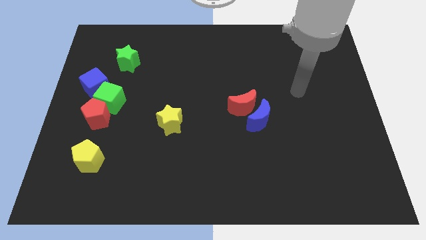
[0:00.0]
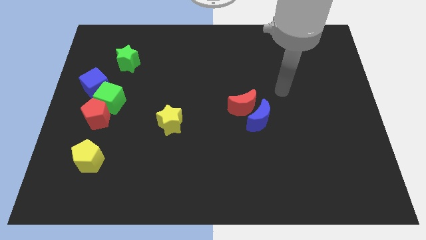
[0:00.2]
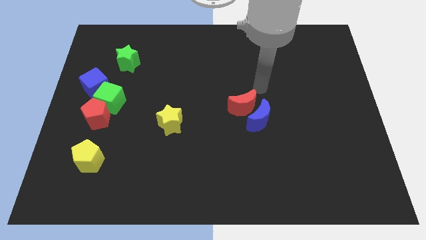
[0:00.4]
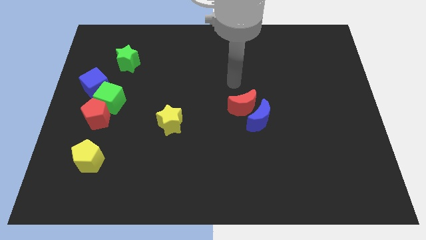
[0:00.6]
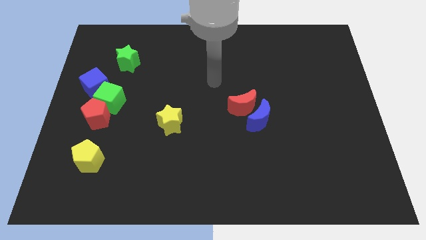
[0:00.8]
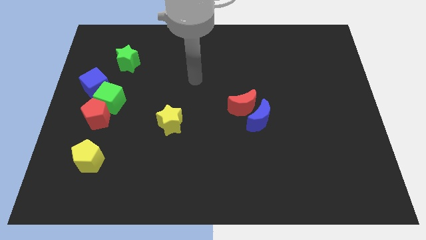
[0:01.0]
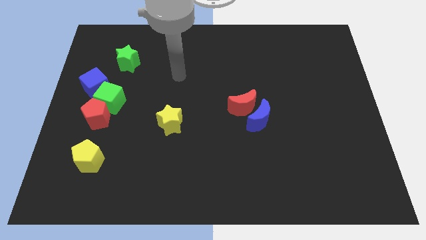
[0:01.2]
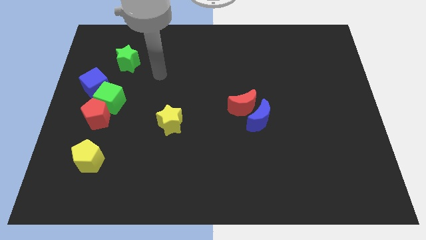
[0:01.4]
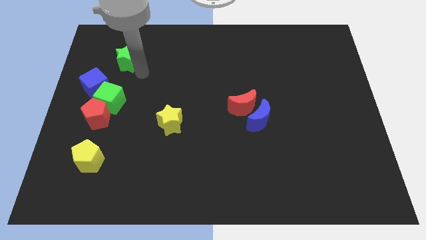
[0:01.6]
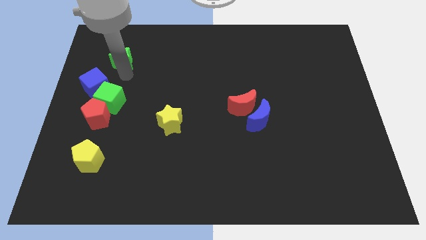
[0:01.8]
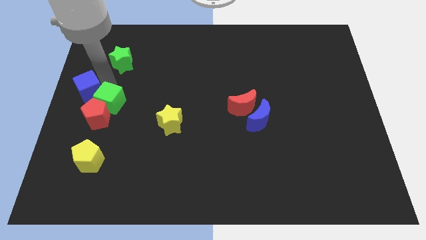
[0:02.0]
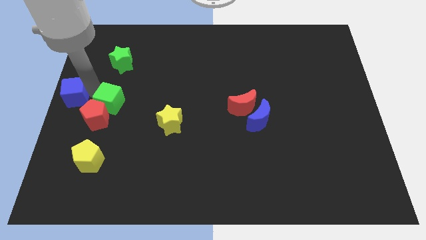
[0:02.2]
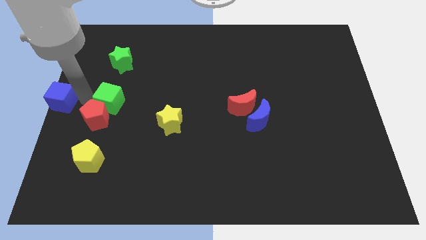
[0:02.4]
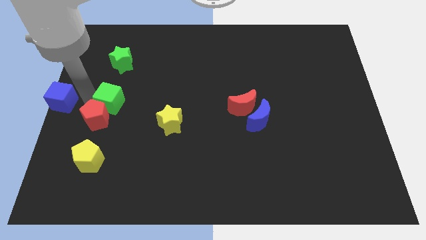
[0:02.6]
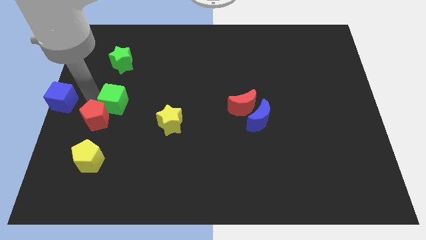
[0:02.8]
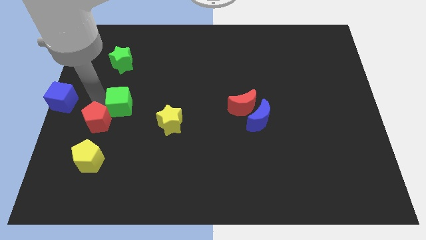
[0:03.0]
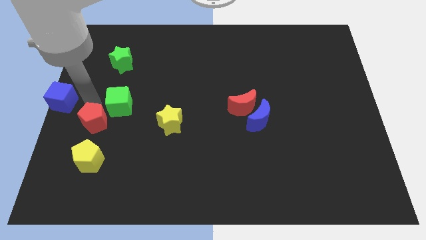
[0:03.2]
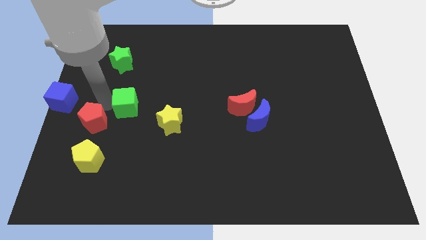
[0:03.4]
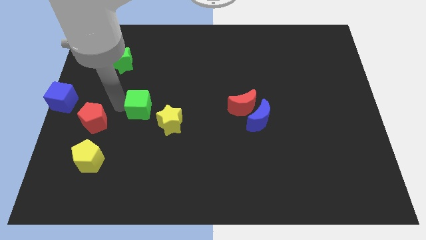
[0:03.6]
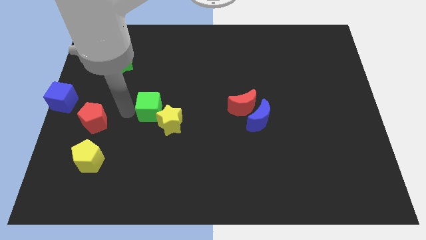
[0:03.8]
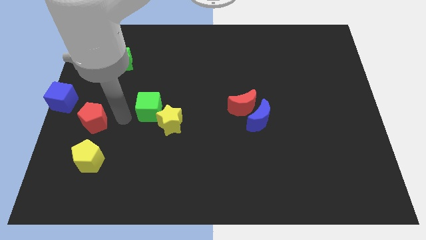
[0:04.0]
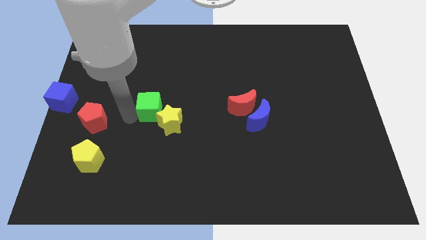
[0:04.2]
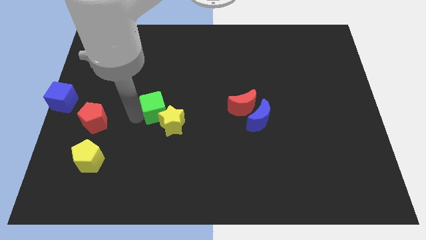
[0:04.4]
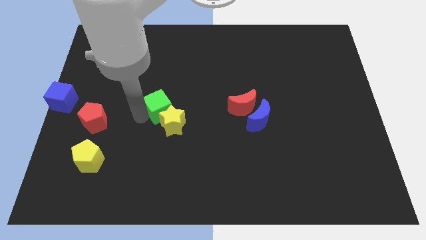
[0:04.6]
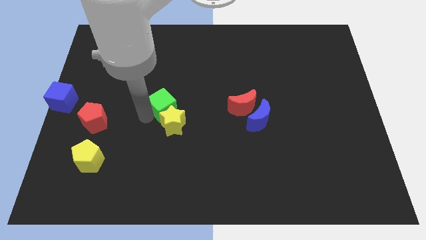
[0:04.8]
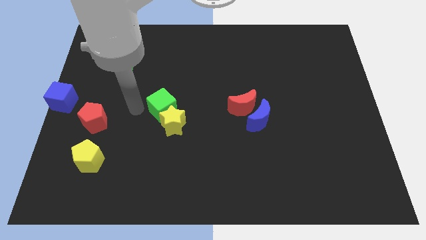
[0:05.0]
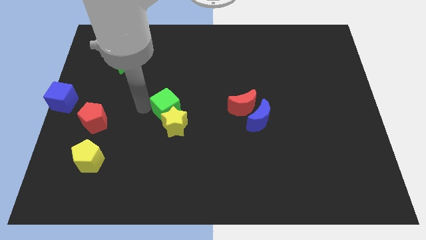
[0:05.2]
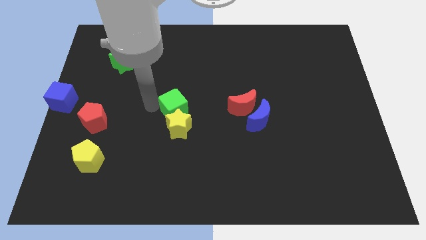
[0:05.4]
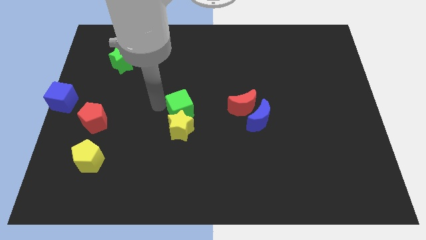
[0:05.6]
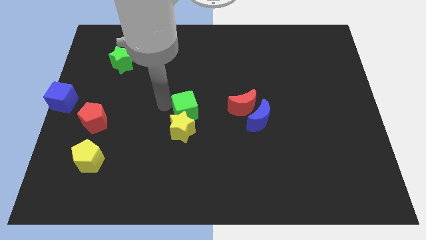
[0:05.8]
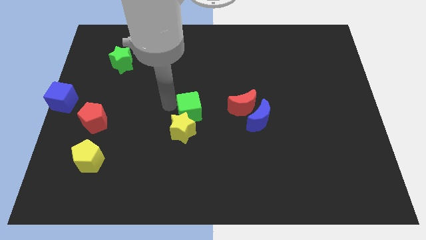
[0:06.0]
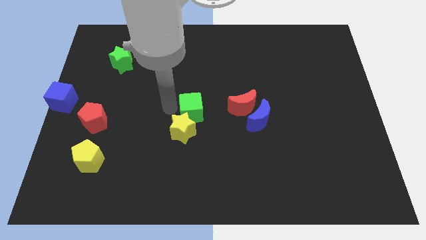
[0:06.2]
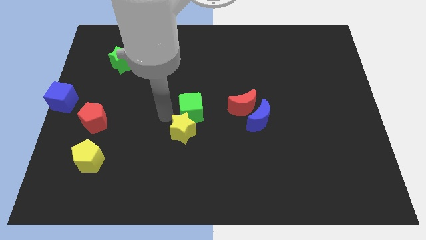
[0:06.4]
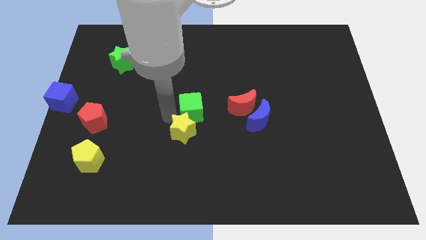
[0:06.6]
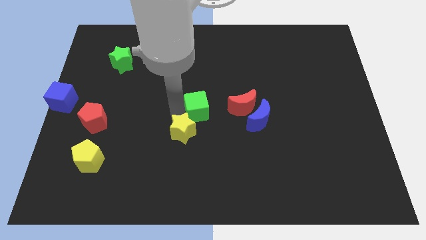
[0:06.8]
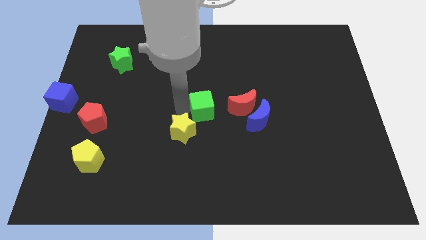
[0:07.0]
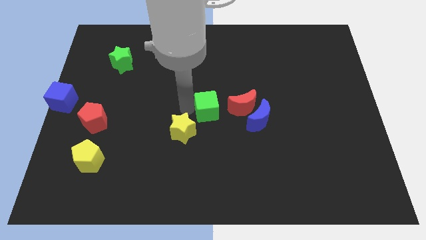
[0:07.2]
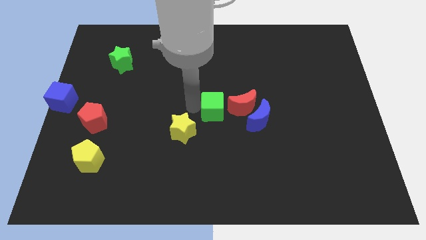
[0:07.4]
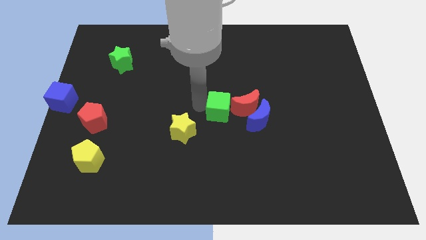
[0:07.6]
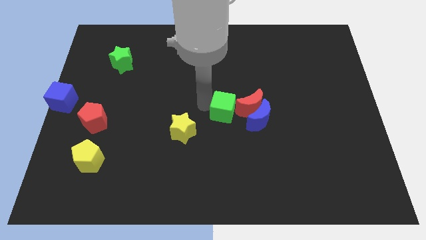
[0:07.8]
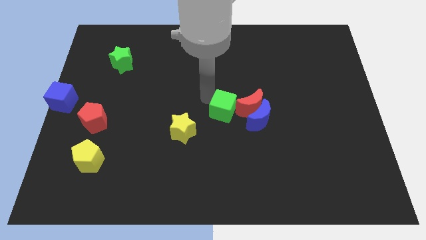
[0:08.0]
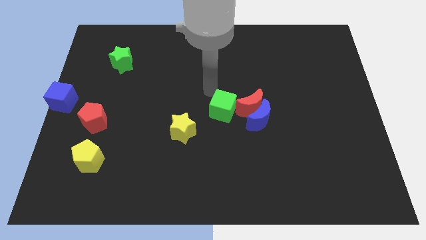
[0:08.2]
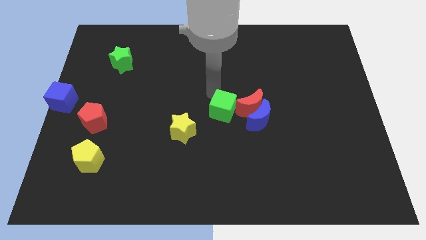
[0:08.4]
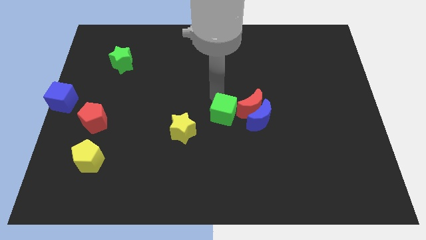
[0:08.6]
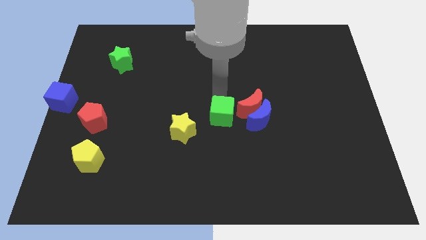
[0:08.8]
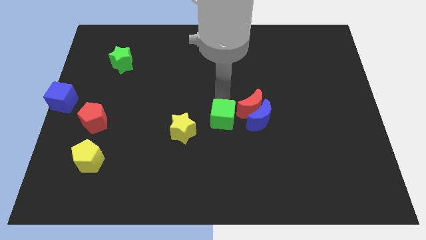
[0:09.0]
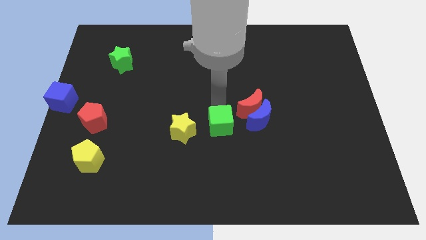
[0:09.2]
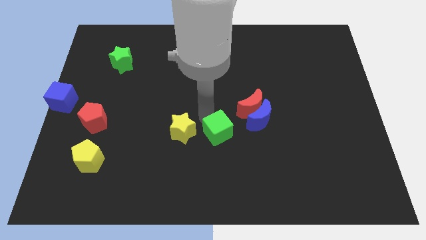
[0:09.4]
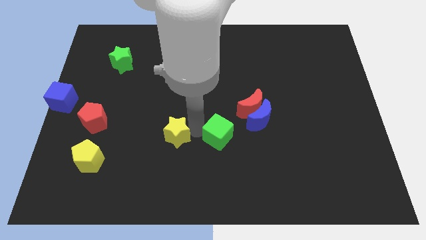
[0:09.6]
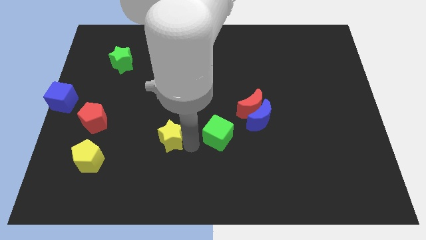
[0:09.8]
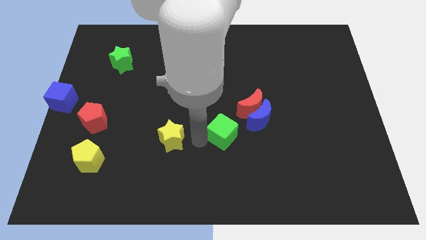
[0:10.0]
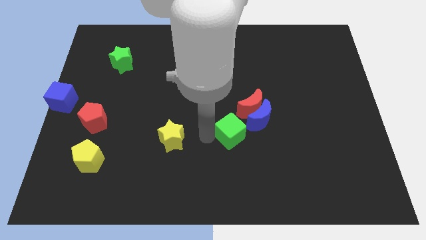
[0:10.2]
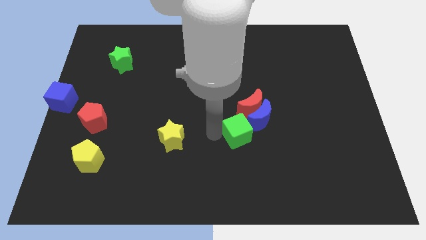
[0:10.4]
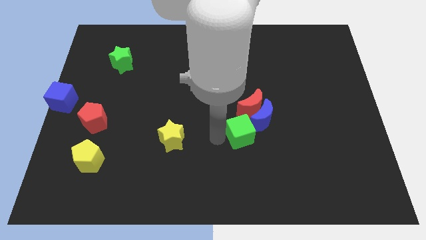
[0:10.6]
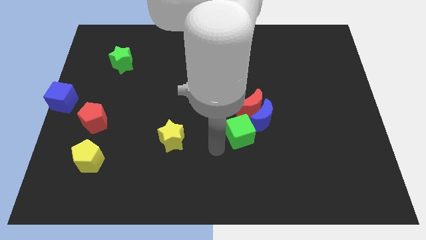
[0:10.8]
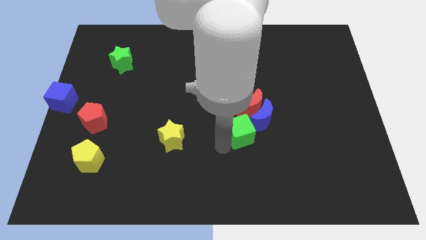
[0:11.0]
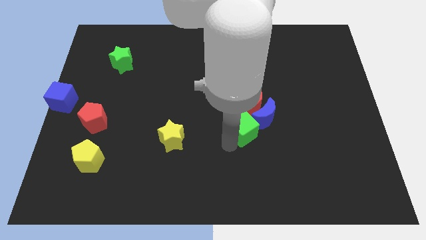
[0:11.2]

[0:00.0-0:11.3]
push the green cube towards the blue moon

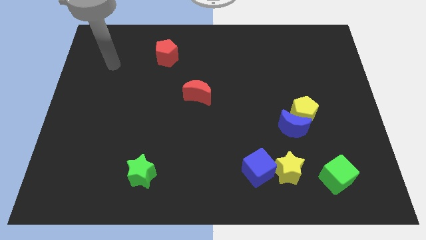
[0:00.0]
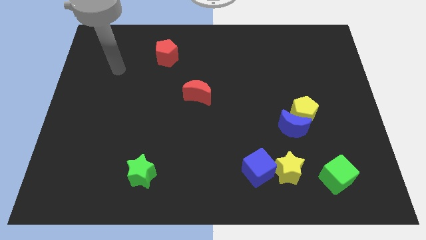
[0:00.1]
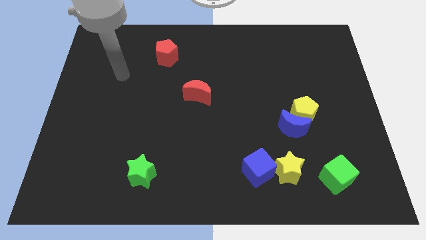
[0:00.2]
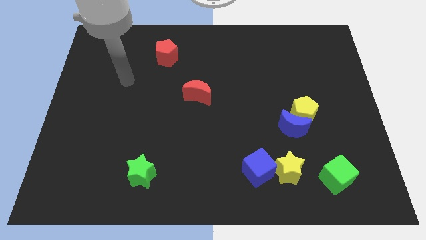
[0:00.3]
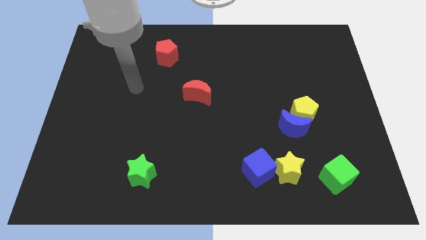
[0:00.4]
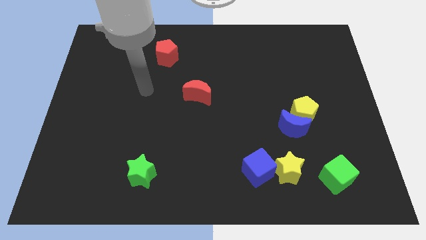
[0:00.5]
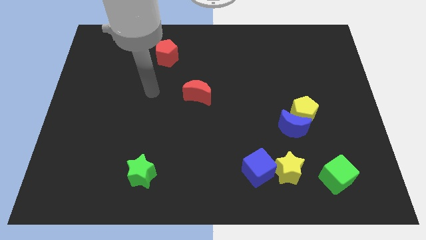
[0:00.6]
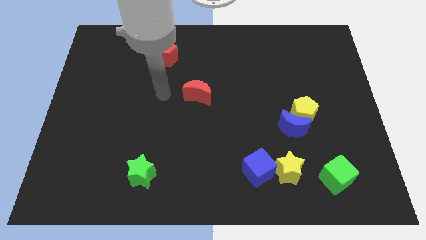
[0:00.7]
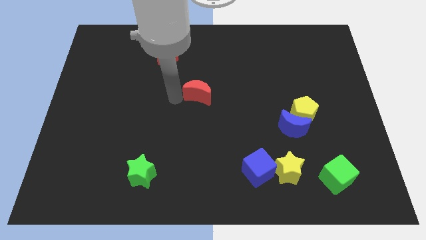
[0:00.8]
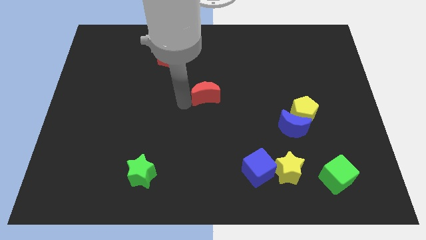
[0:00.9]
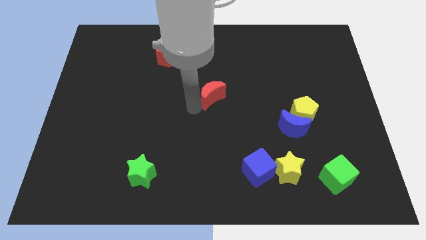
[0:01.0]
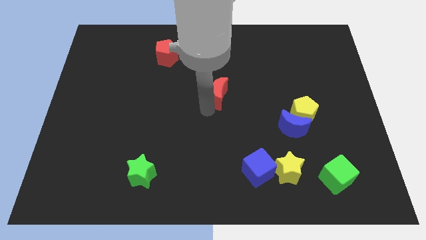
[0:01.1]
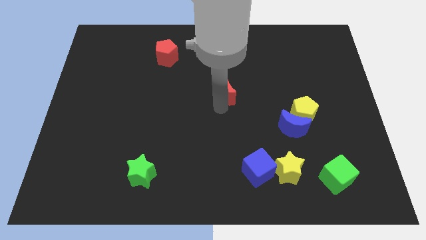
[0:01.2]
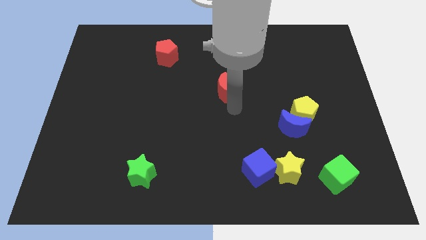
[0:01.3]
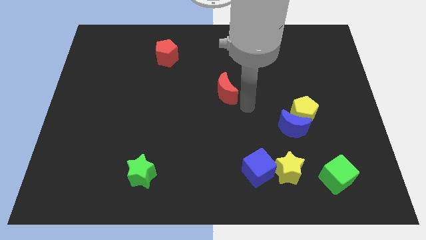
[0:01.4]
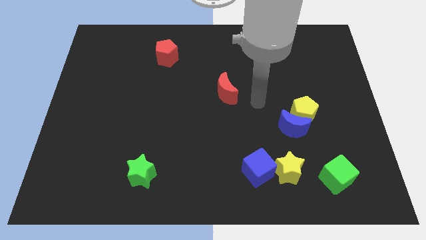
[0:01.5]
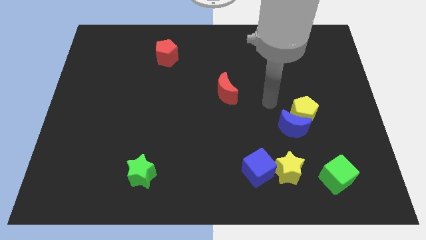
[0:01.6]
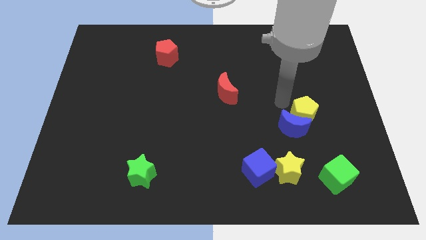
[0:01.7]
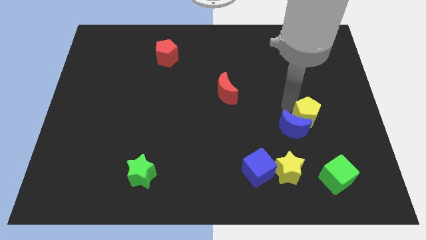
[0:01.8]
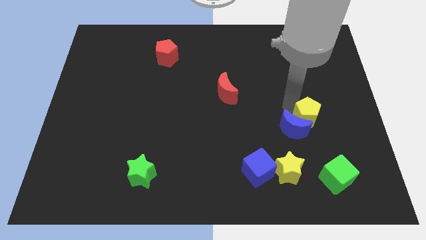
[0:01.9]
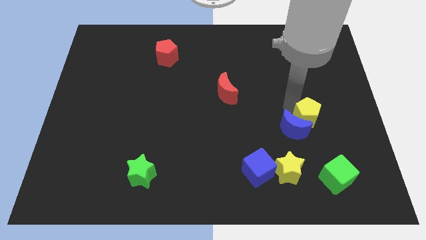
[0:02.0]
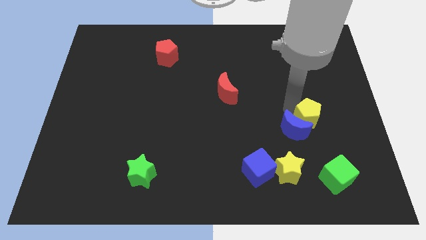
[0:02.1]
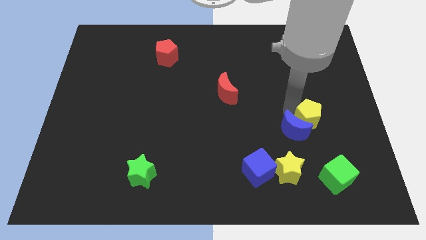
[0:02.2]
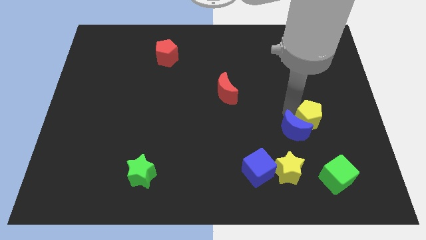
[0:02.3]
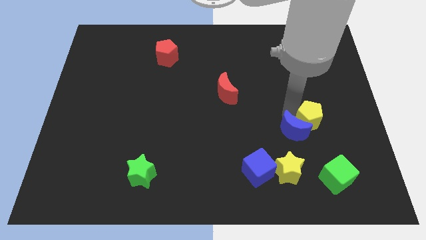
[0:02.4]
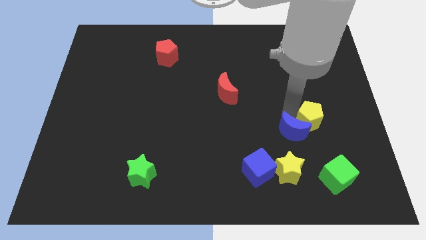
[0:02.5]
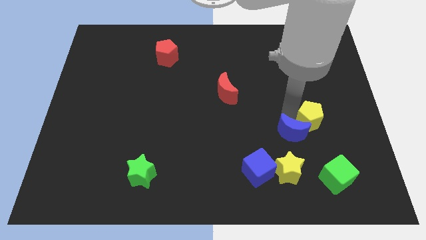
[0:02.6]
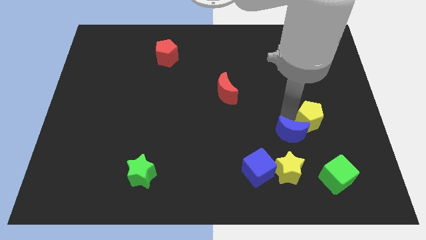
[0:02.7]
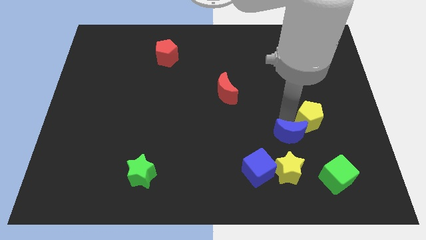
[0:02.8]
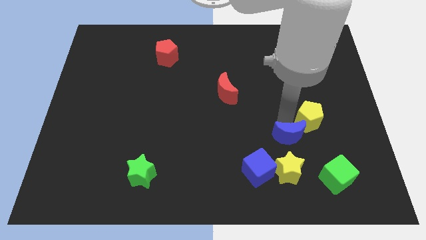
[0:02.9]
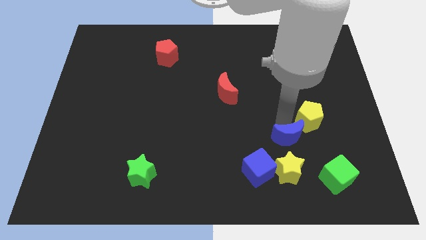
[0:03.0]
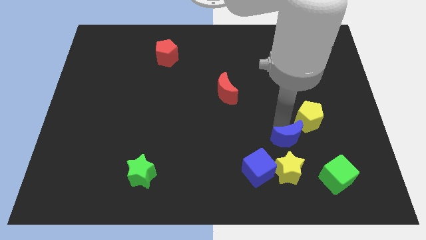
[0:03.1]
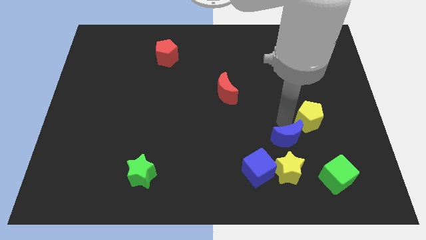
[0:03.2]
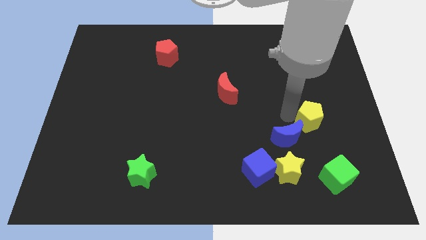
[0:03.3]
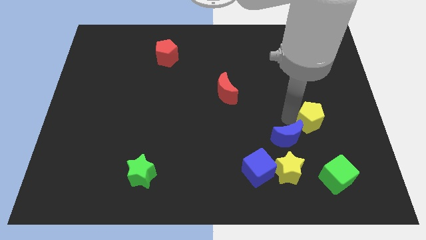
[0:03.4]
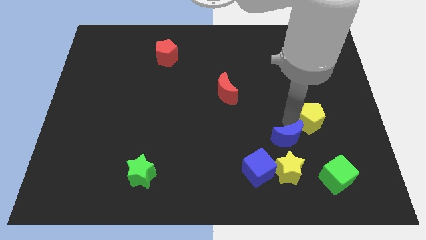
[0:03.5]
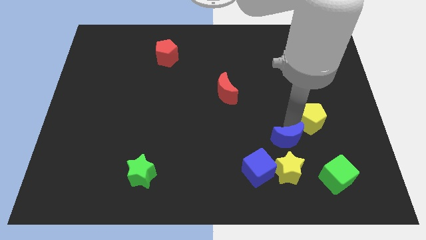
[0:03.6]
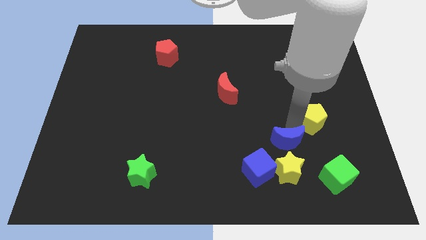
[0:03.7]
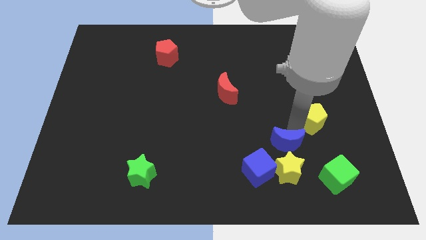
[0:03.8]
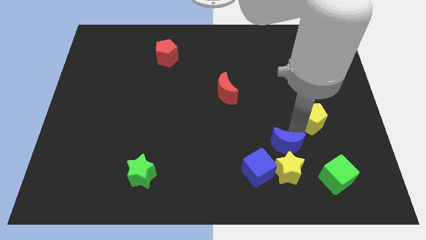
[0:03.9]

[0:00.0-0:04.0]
push the blue moon towards the yellow star
